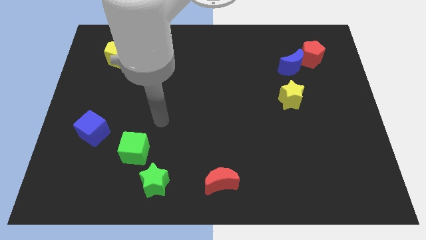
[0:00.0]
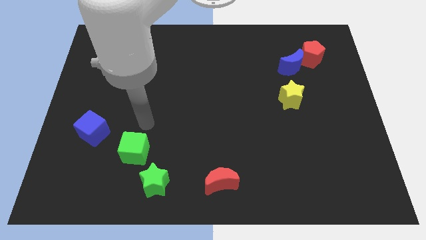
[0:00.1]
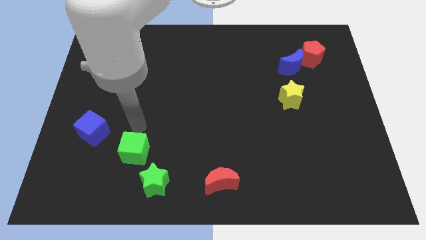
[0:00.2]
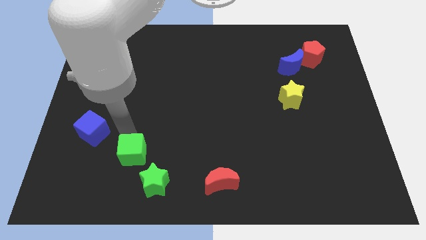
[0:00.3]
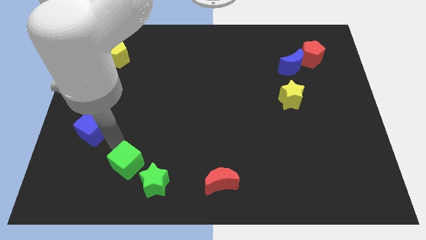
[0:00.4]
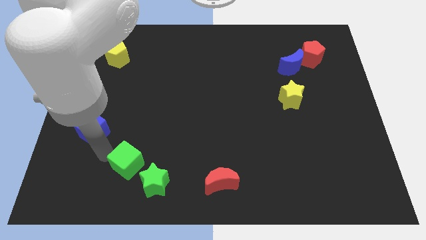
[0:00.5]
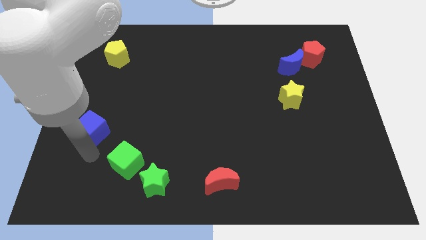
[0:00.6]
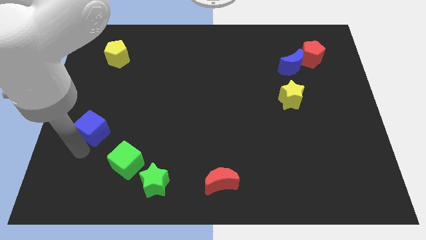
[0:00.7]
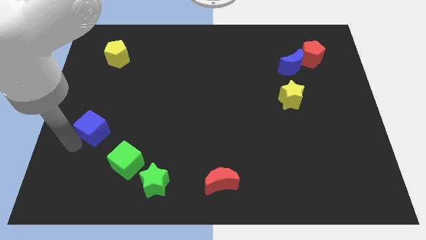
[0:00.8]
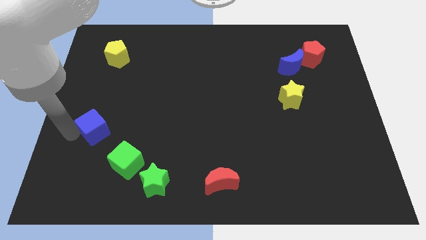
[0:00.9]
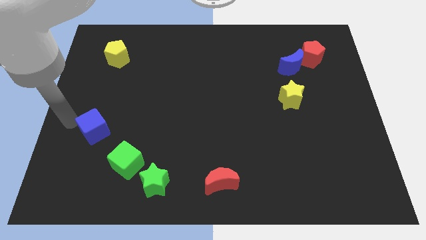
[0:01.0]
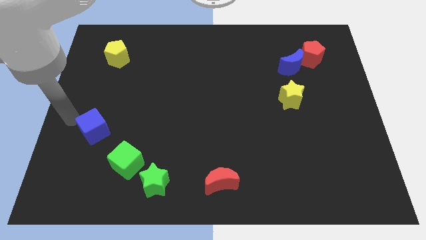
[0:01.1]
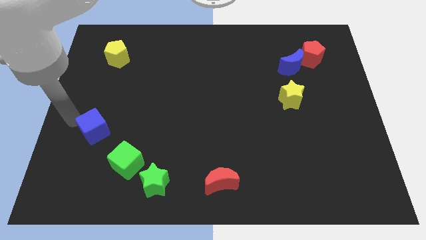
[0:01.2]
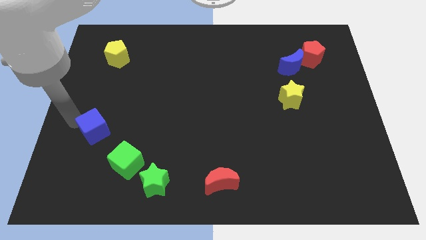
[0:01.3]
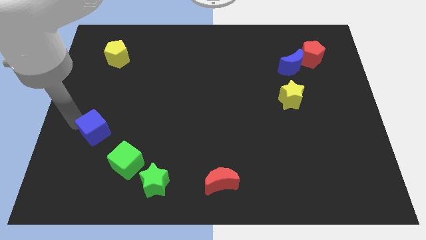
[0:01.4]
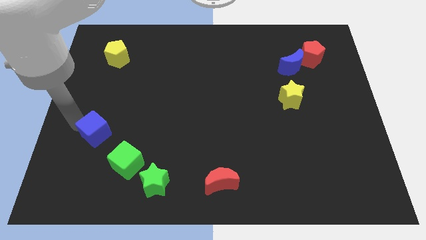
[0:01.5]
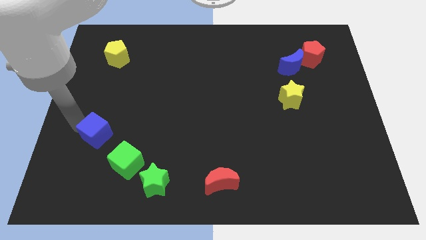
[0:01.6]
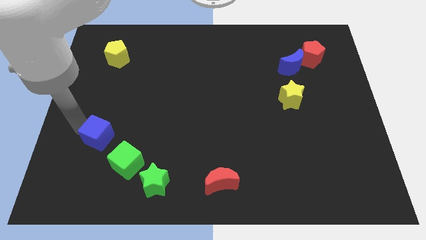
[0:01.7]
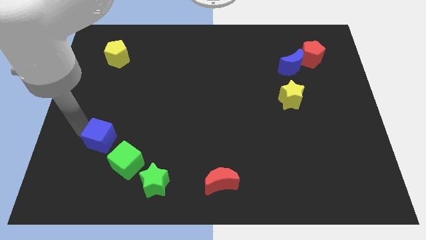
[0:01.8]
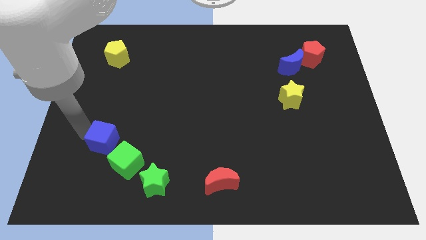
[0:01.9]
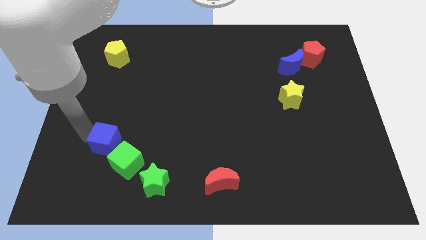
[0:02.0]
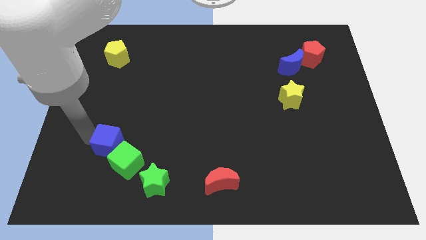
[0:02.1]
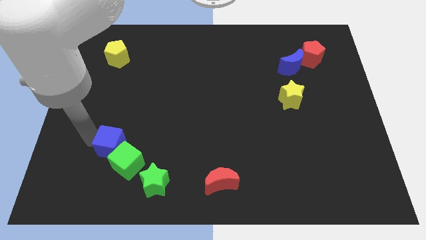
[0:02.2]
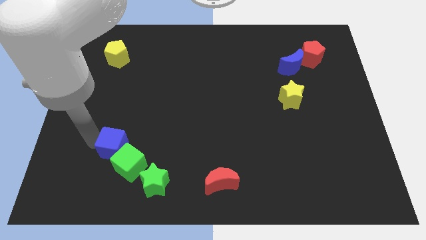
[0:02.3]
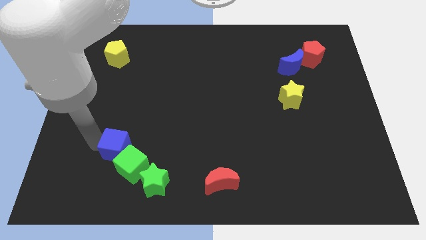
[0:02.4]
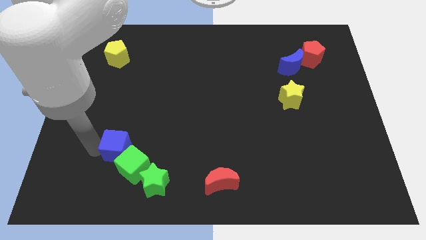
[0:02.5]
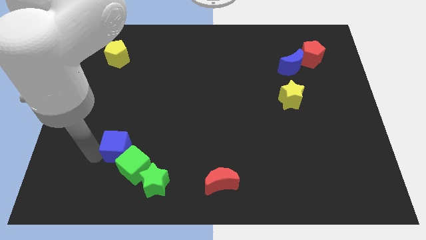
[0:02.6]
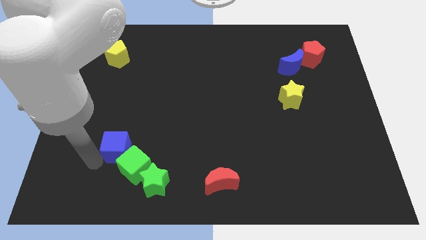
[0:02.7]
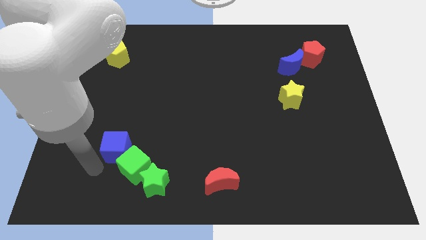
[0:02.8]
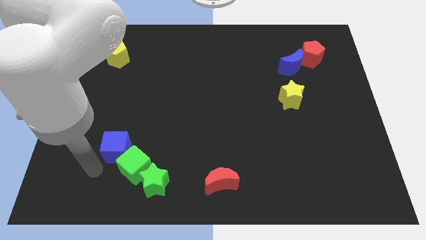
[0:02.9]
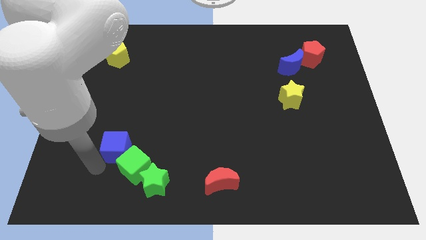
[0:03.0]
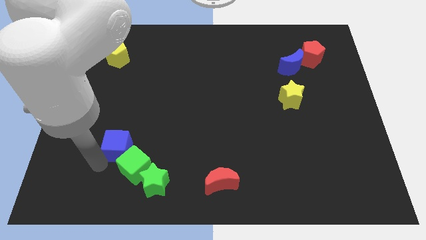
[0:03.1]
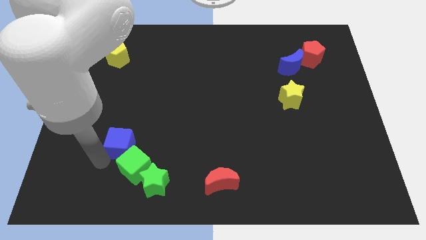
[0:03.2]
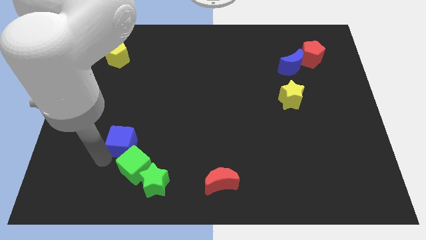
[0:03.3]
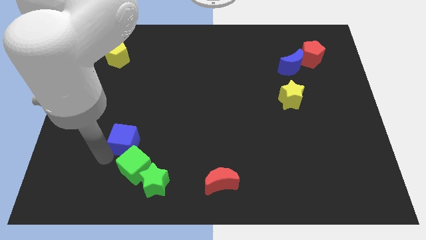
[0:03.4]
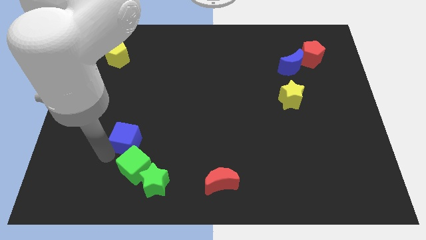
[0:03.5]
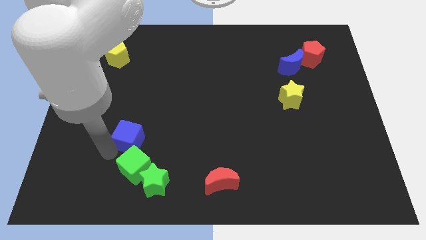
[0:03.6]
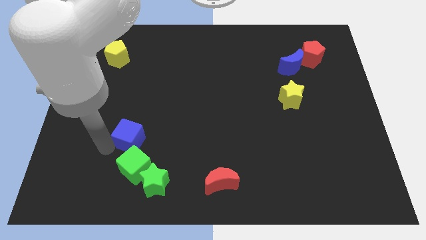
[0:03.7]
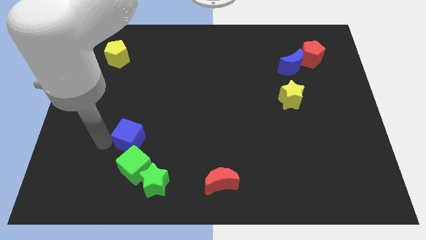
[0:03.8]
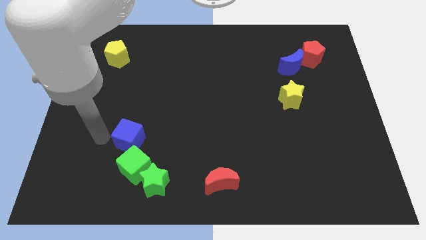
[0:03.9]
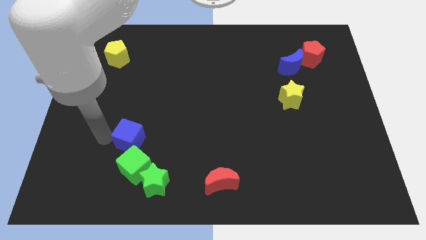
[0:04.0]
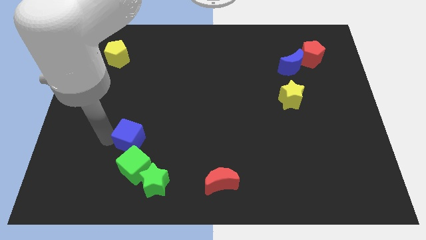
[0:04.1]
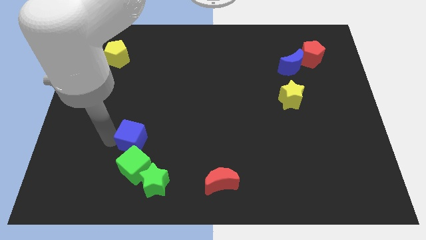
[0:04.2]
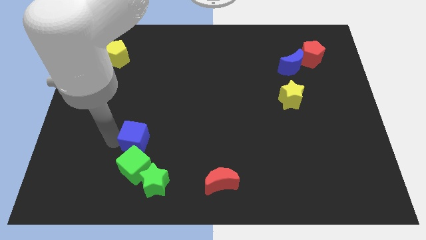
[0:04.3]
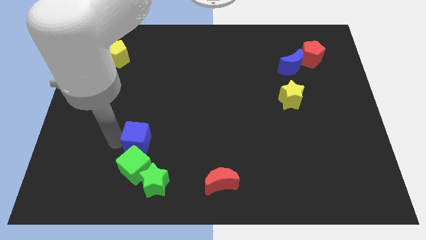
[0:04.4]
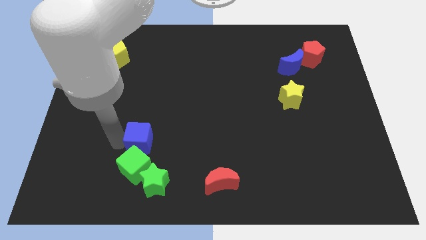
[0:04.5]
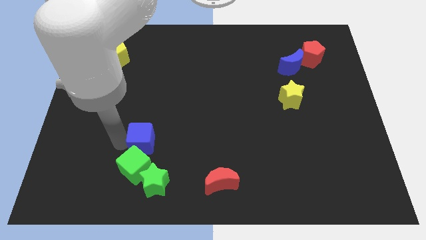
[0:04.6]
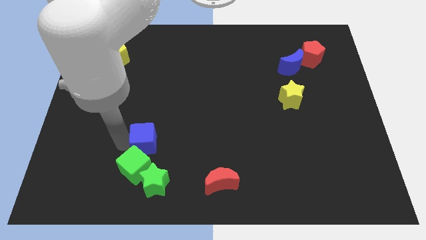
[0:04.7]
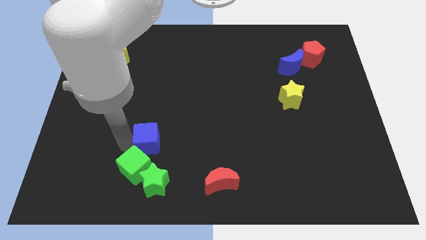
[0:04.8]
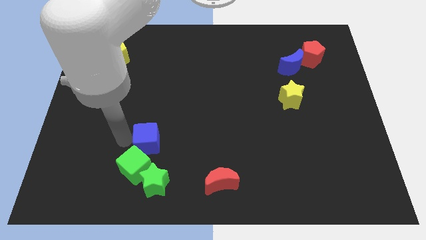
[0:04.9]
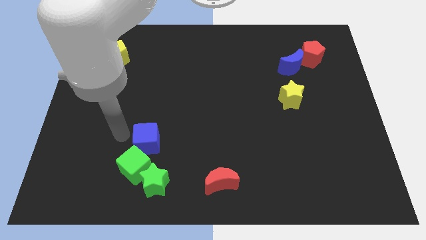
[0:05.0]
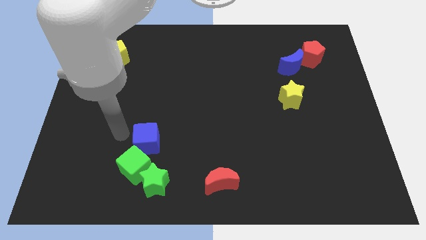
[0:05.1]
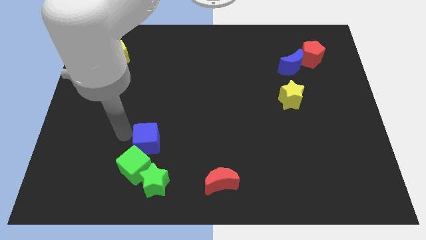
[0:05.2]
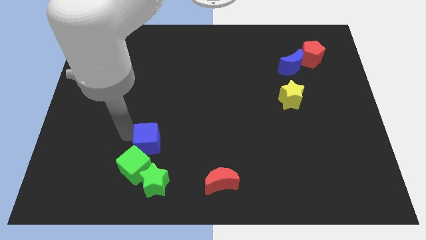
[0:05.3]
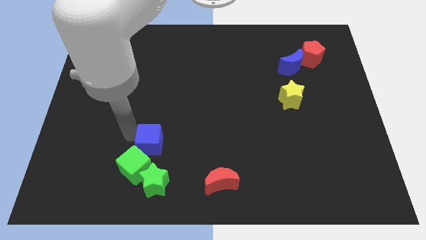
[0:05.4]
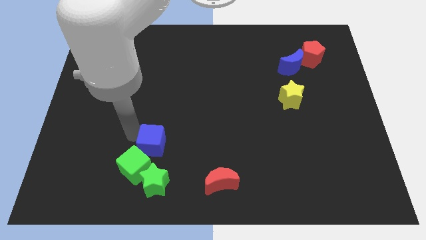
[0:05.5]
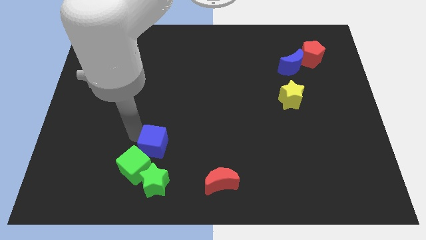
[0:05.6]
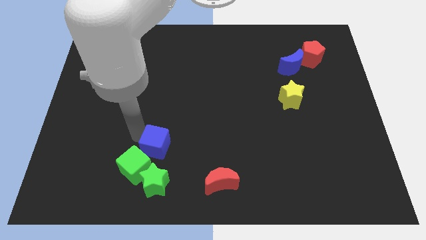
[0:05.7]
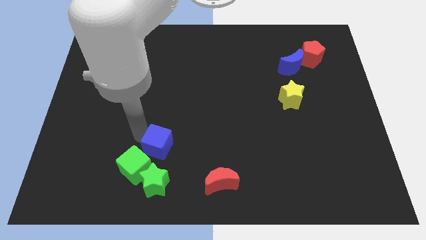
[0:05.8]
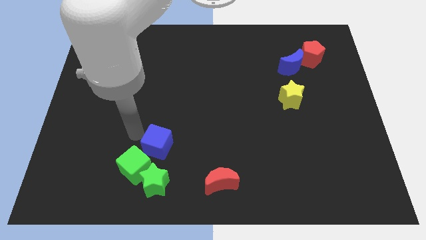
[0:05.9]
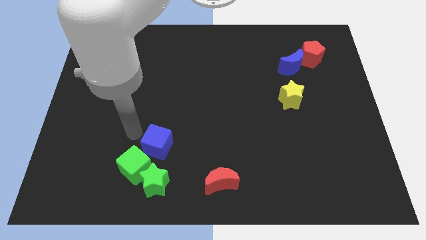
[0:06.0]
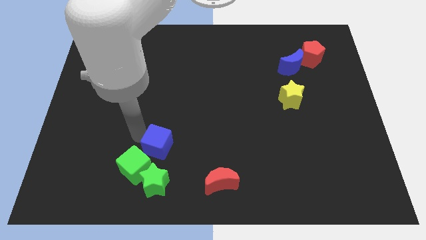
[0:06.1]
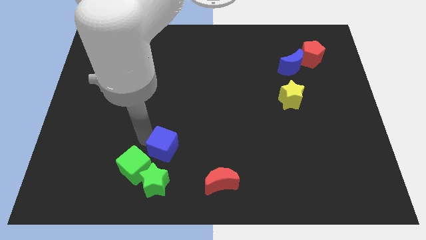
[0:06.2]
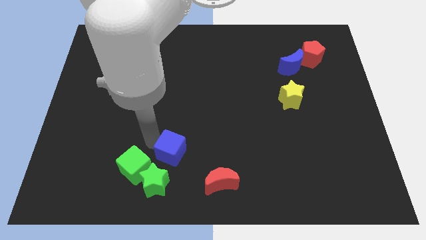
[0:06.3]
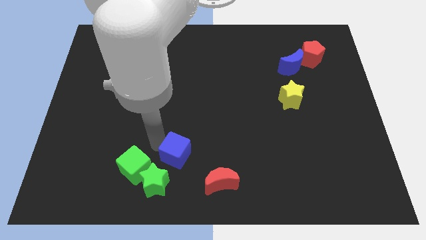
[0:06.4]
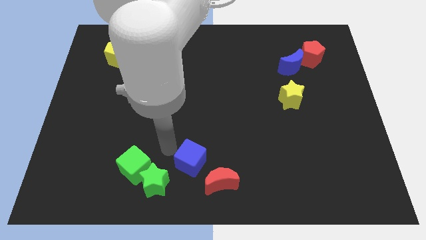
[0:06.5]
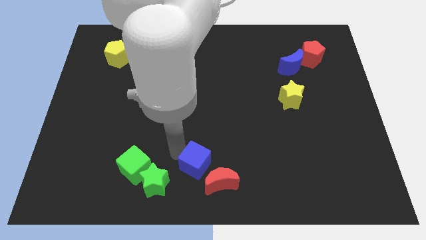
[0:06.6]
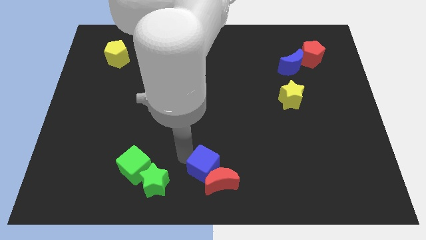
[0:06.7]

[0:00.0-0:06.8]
move the blue cube close to the red moon

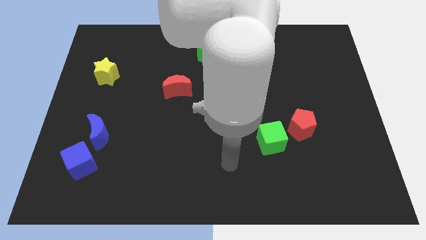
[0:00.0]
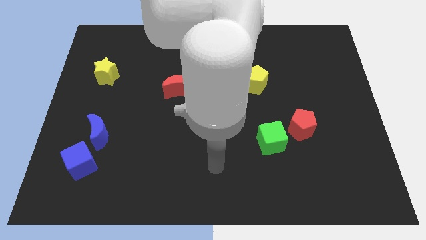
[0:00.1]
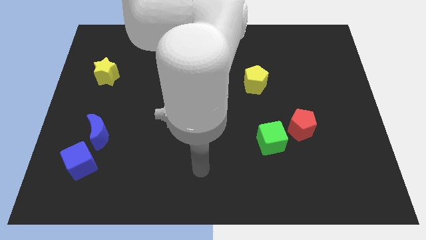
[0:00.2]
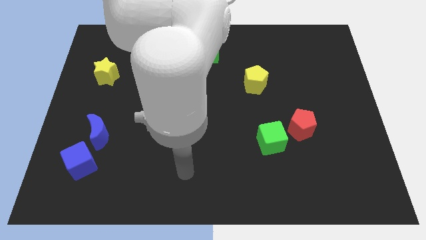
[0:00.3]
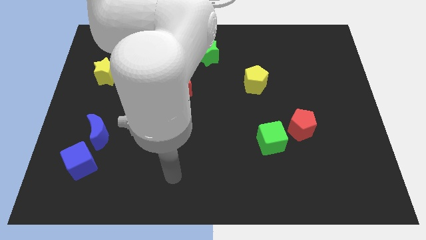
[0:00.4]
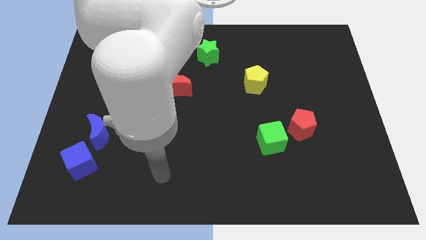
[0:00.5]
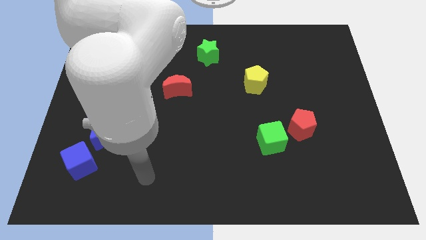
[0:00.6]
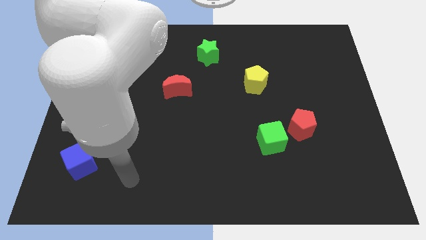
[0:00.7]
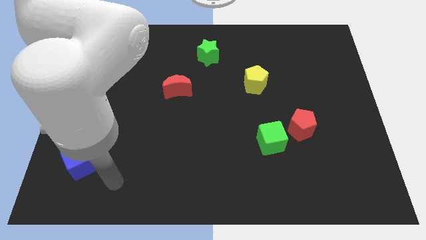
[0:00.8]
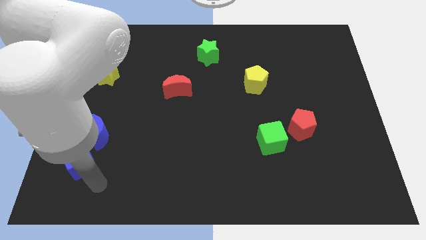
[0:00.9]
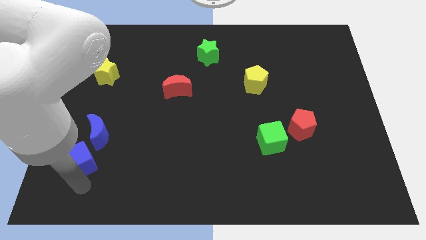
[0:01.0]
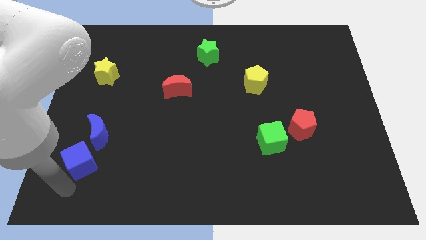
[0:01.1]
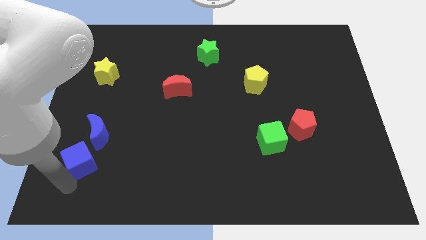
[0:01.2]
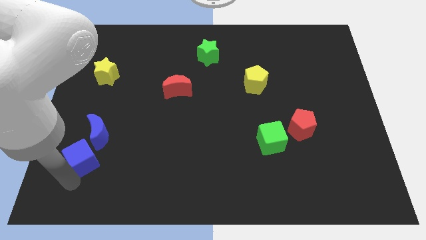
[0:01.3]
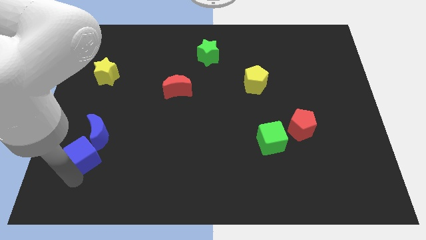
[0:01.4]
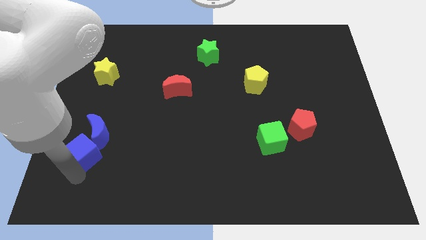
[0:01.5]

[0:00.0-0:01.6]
push the blue cube close to the blue moon

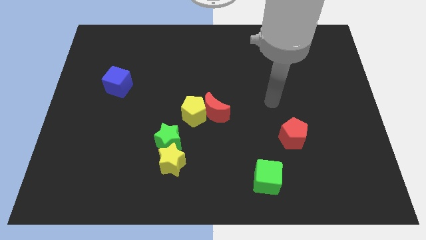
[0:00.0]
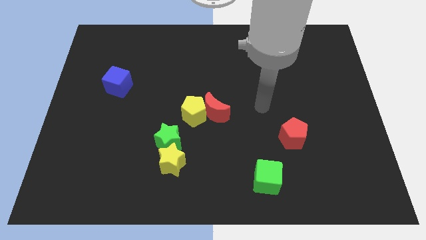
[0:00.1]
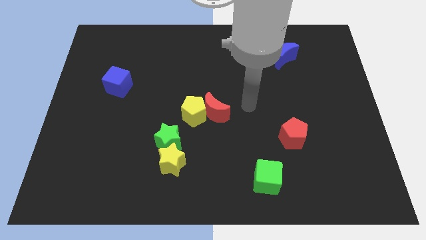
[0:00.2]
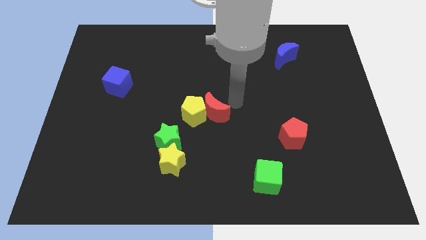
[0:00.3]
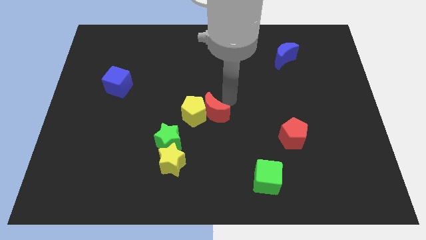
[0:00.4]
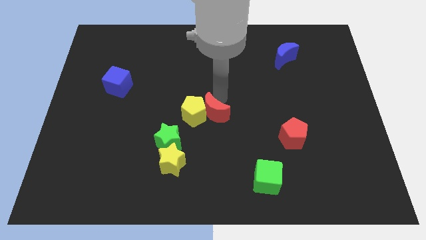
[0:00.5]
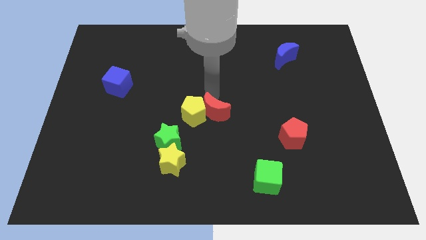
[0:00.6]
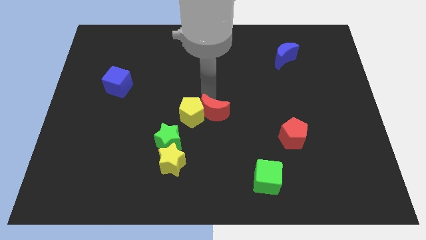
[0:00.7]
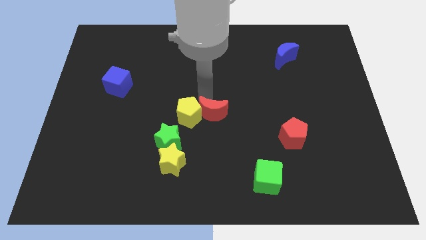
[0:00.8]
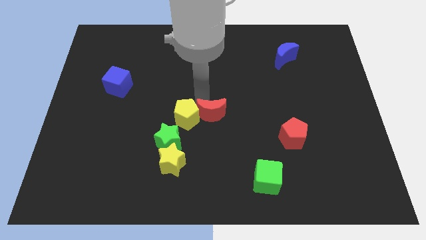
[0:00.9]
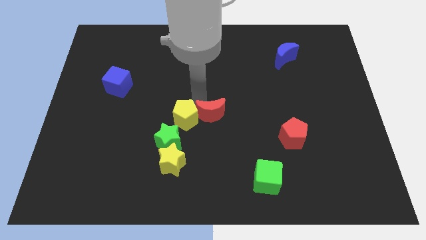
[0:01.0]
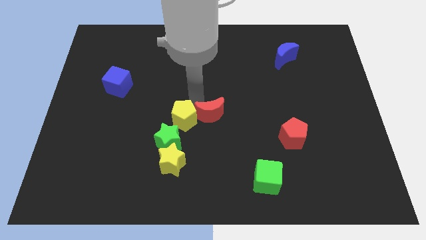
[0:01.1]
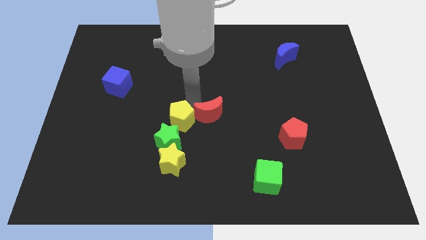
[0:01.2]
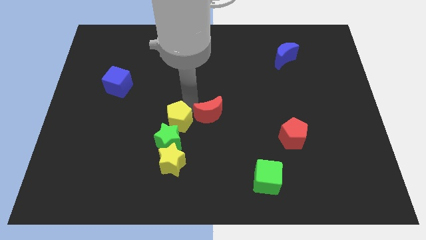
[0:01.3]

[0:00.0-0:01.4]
move the yellow pentagon next to the green star
